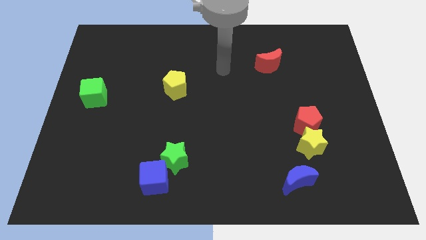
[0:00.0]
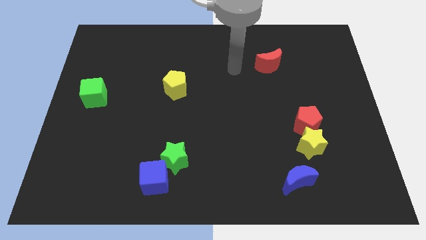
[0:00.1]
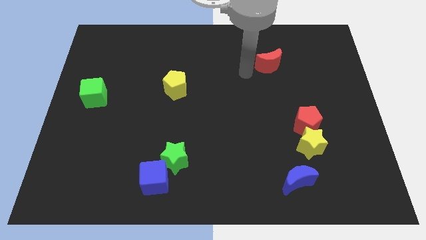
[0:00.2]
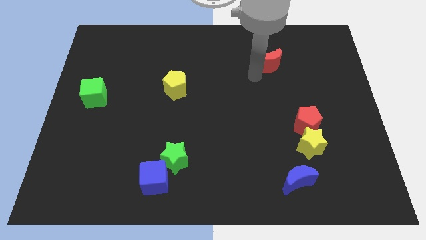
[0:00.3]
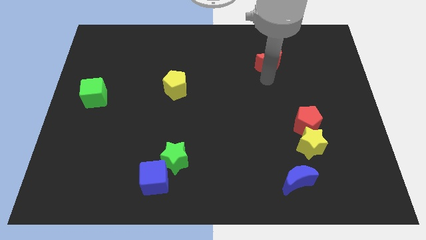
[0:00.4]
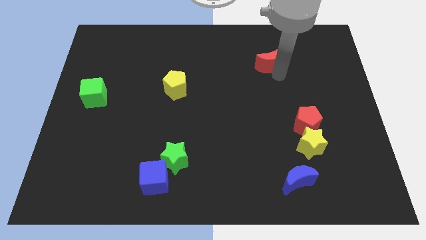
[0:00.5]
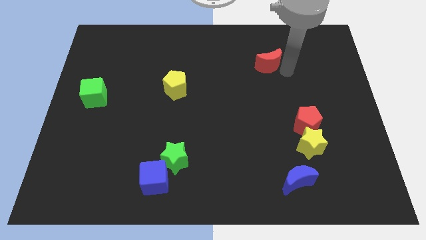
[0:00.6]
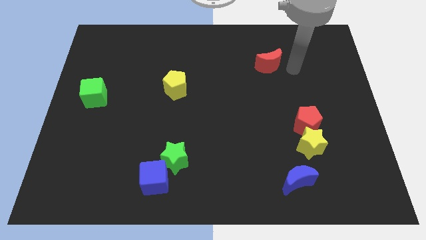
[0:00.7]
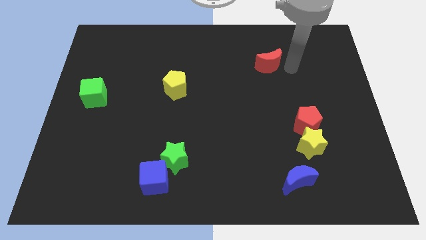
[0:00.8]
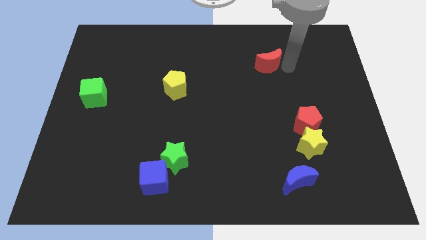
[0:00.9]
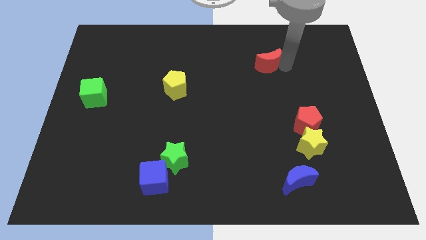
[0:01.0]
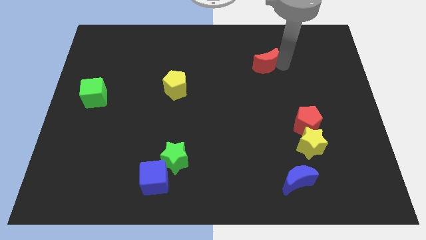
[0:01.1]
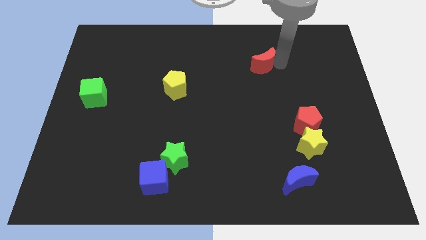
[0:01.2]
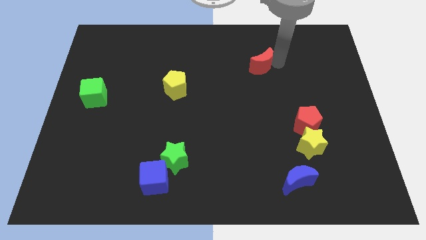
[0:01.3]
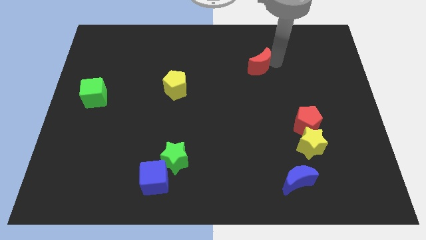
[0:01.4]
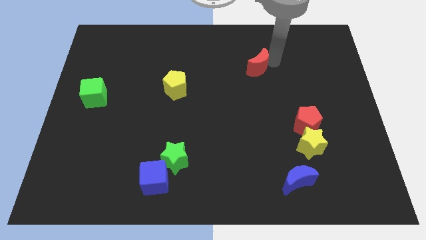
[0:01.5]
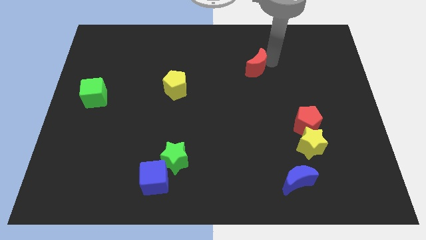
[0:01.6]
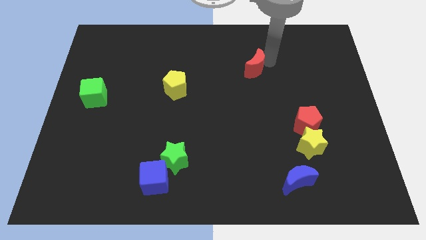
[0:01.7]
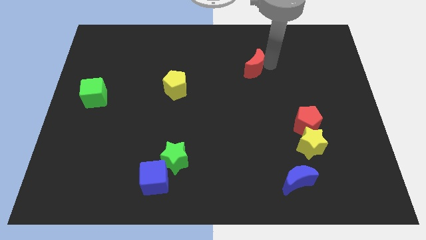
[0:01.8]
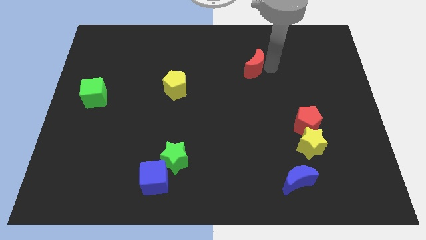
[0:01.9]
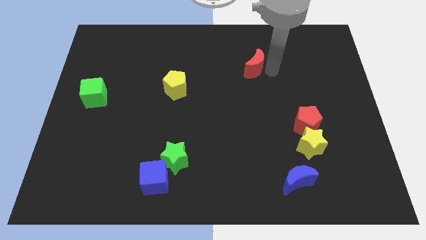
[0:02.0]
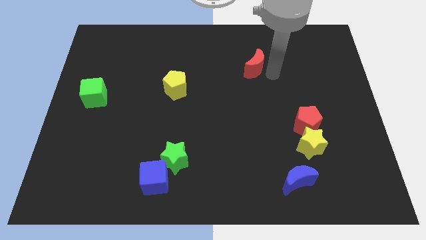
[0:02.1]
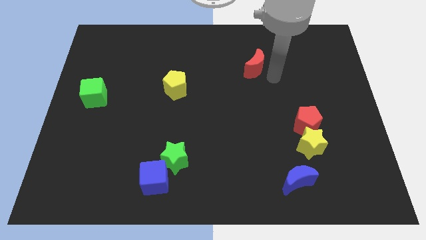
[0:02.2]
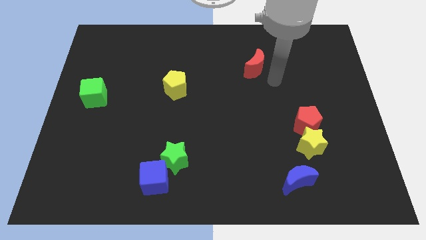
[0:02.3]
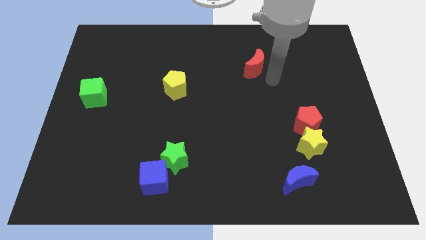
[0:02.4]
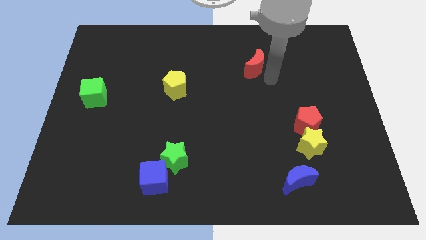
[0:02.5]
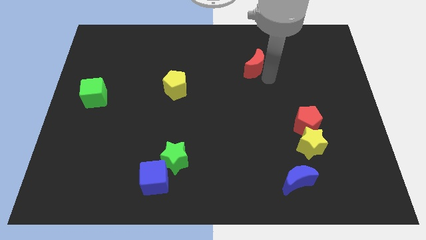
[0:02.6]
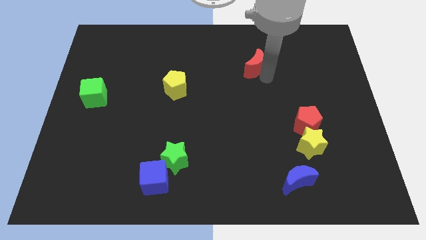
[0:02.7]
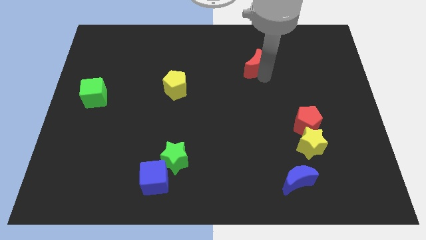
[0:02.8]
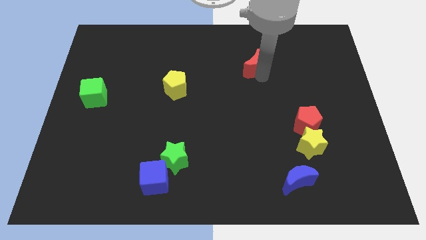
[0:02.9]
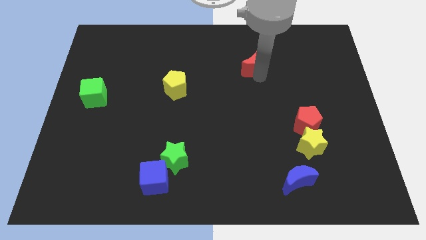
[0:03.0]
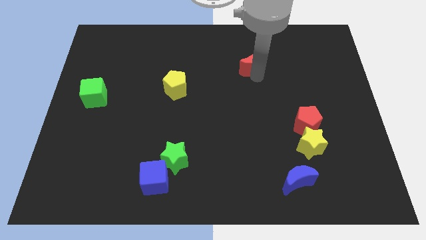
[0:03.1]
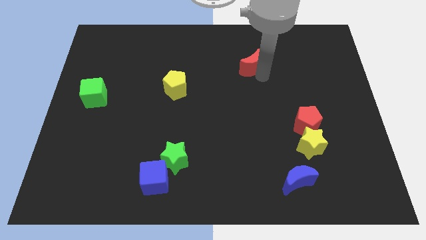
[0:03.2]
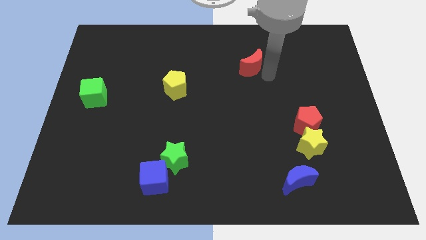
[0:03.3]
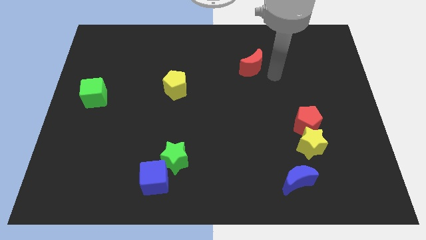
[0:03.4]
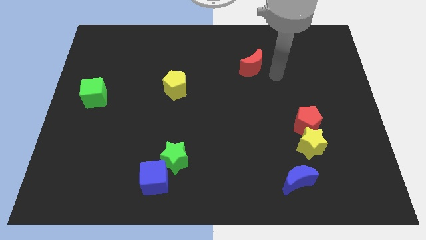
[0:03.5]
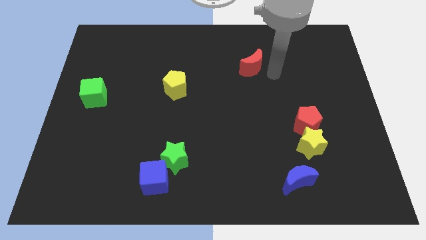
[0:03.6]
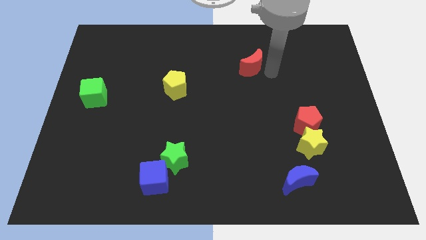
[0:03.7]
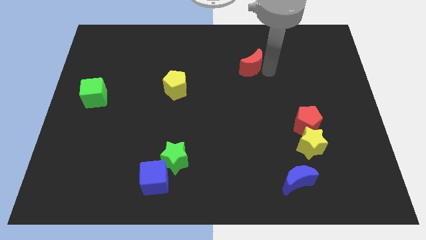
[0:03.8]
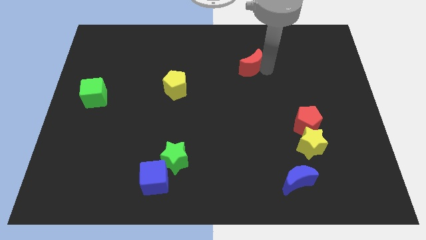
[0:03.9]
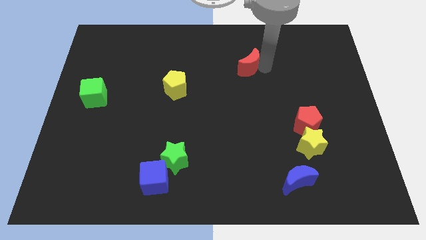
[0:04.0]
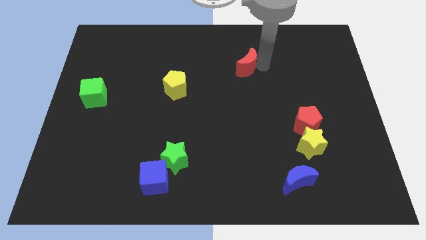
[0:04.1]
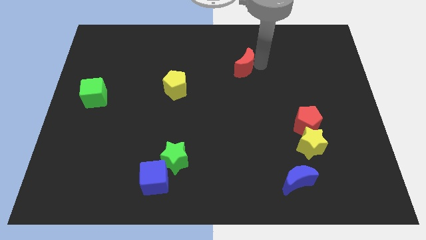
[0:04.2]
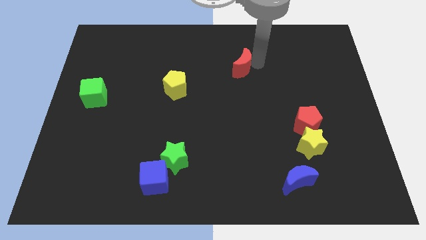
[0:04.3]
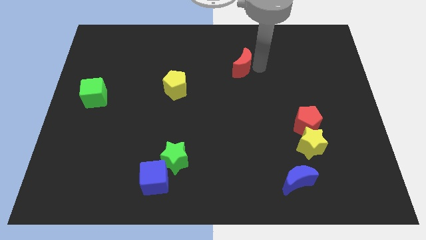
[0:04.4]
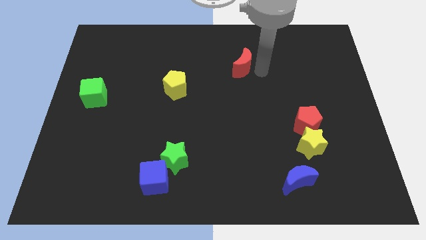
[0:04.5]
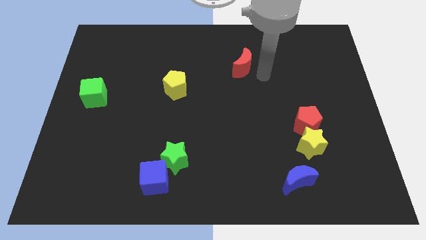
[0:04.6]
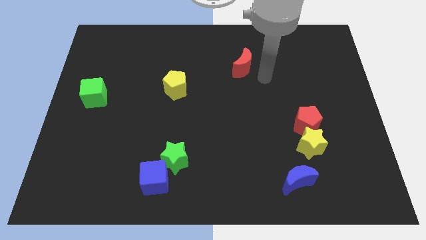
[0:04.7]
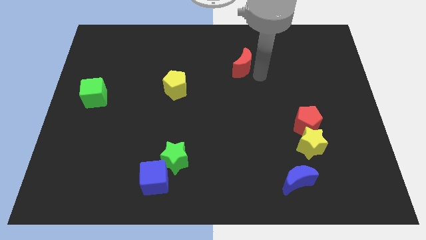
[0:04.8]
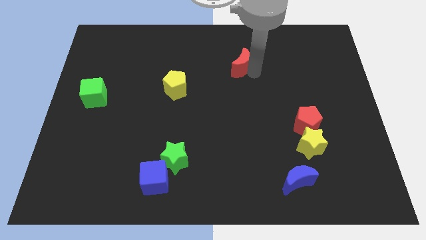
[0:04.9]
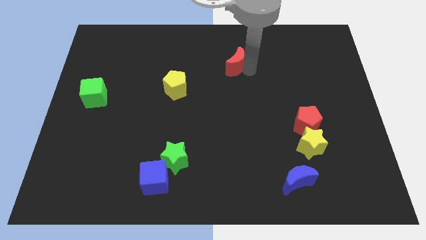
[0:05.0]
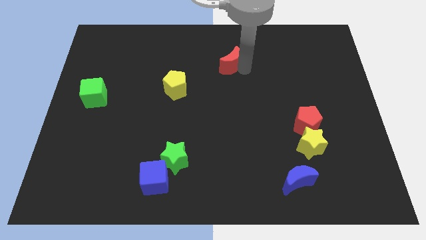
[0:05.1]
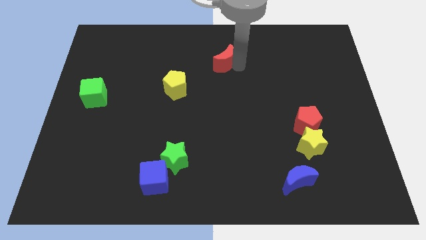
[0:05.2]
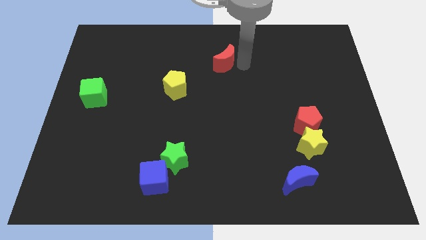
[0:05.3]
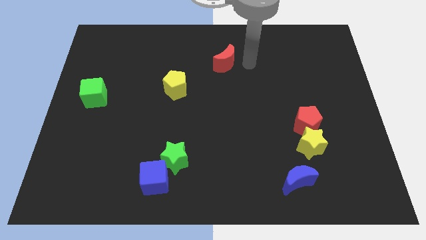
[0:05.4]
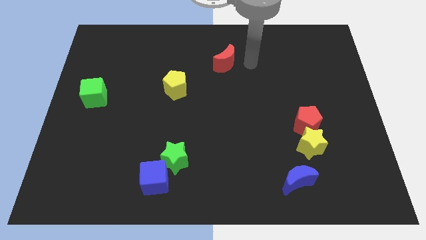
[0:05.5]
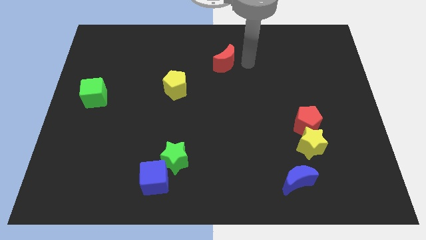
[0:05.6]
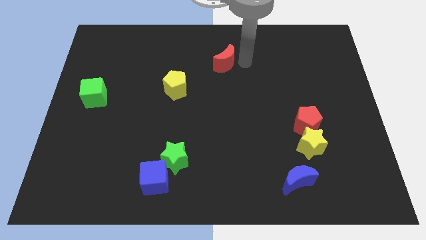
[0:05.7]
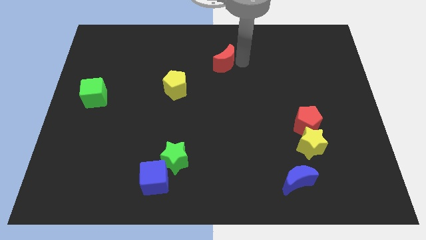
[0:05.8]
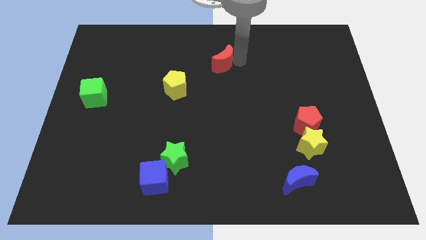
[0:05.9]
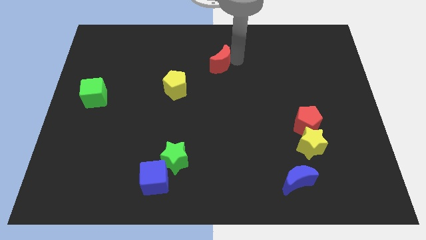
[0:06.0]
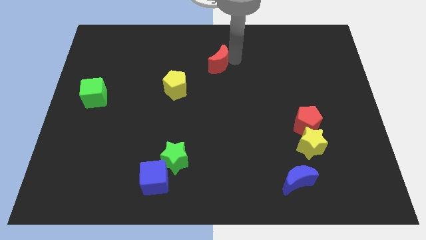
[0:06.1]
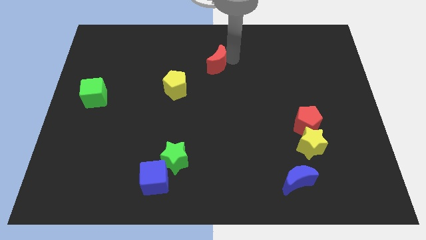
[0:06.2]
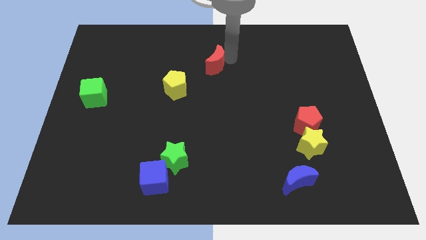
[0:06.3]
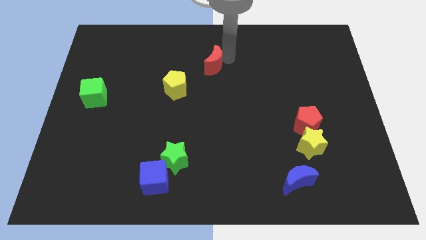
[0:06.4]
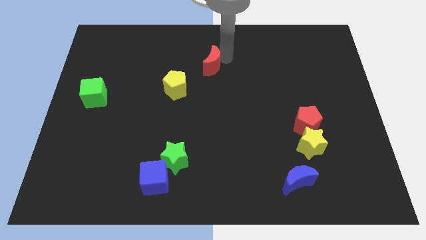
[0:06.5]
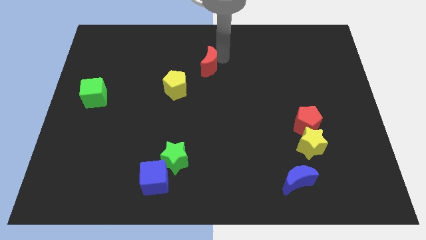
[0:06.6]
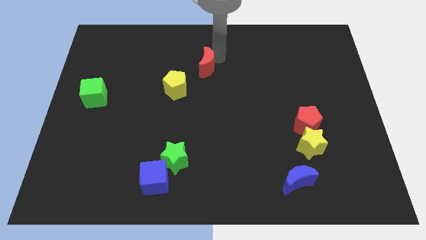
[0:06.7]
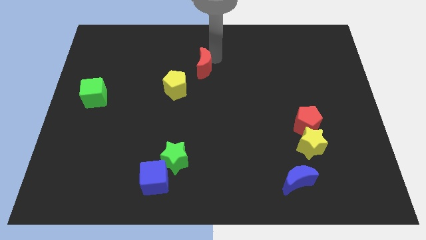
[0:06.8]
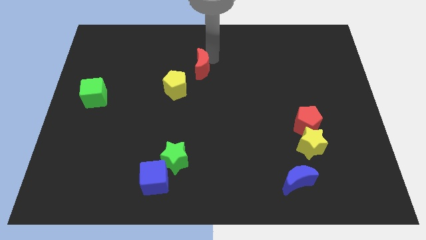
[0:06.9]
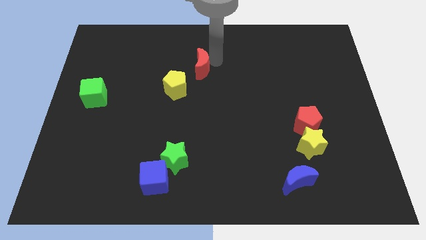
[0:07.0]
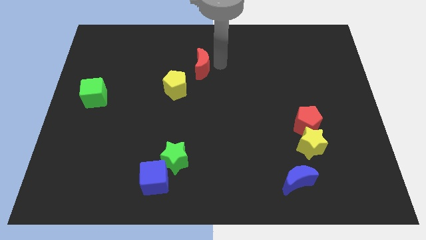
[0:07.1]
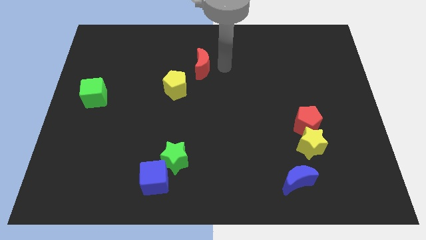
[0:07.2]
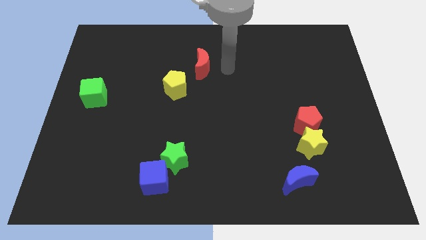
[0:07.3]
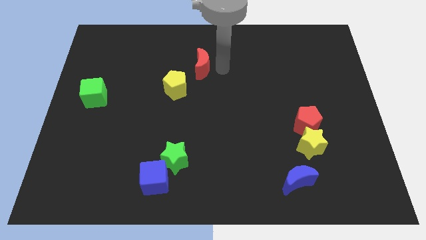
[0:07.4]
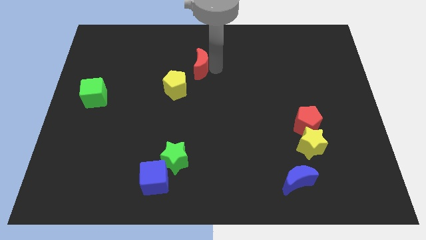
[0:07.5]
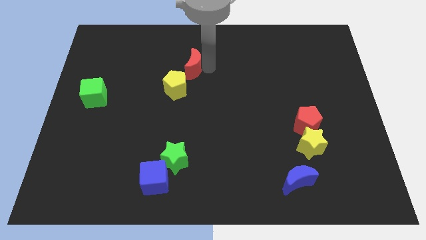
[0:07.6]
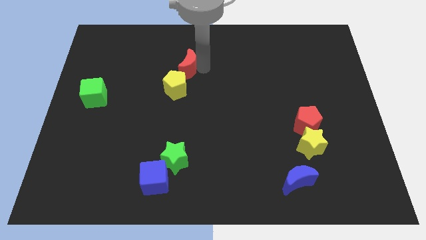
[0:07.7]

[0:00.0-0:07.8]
slide the red moon left

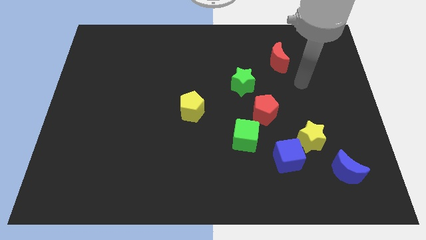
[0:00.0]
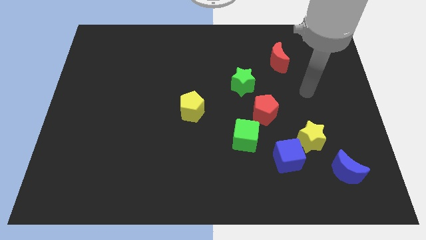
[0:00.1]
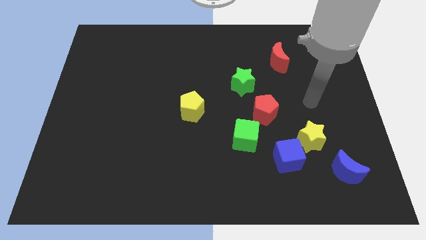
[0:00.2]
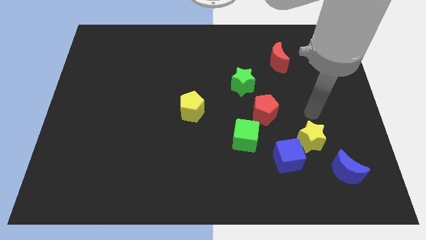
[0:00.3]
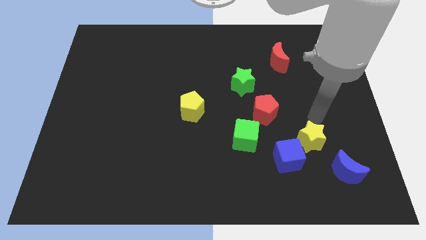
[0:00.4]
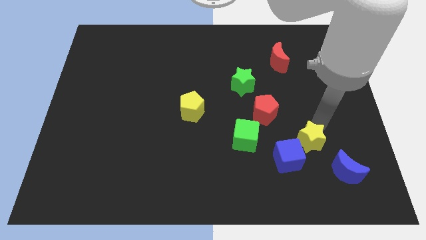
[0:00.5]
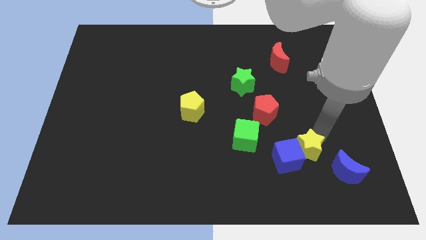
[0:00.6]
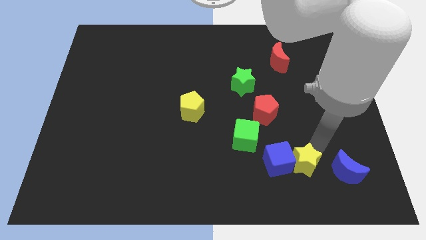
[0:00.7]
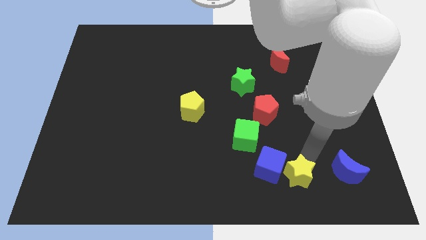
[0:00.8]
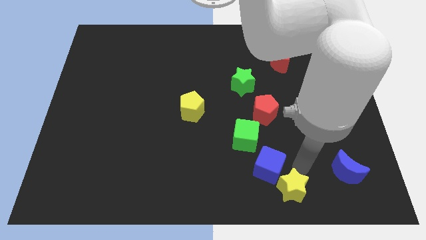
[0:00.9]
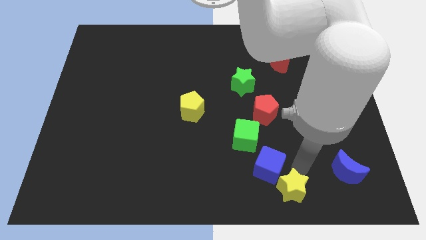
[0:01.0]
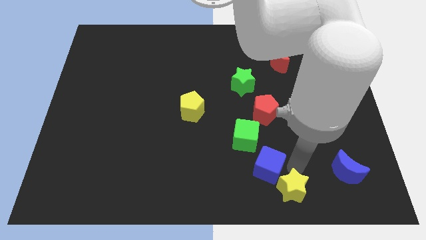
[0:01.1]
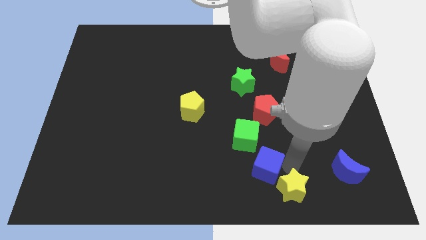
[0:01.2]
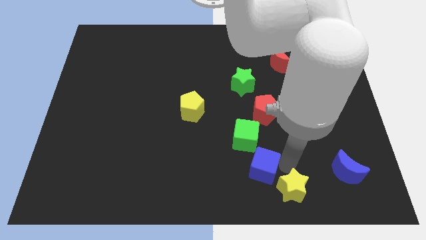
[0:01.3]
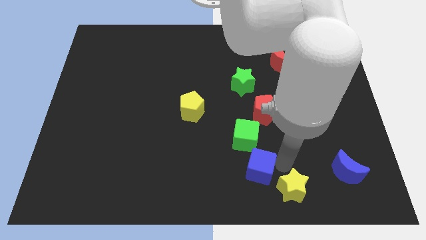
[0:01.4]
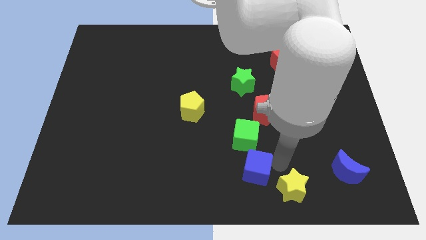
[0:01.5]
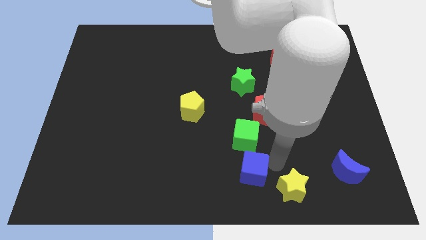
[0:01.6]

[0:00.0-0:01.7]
slide the blue cube left slightly
